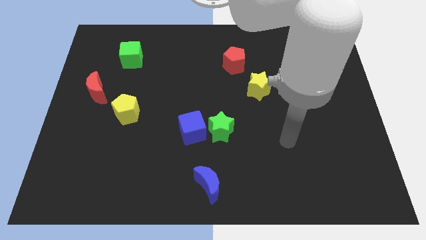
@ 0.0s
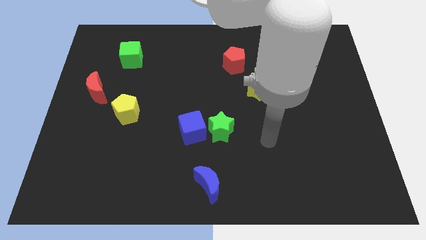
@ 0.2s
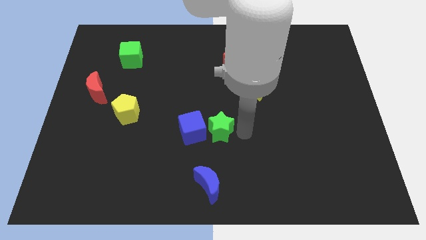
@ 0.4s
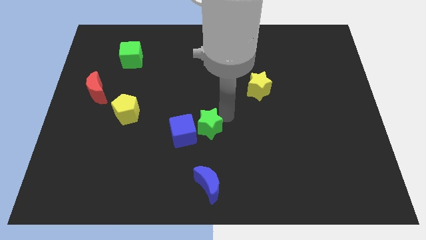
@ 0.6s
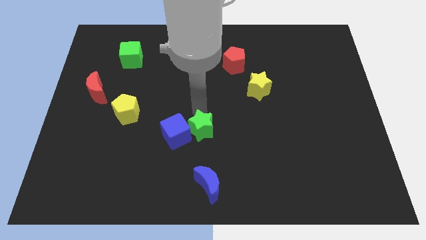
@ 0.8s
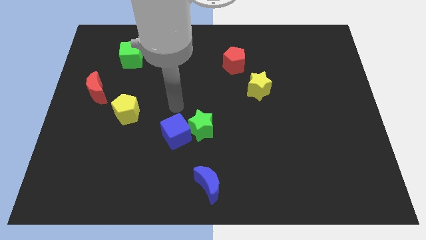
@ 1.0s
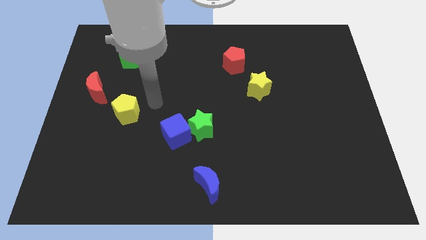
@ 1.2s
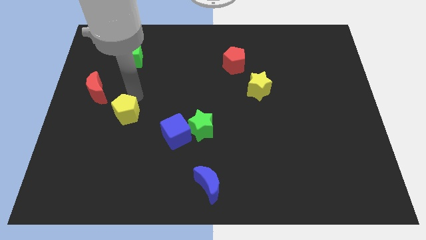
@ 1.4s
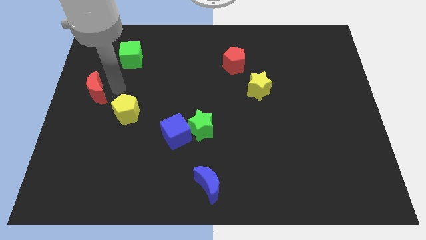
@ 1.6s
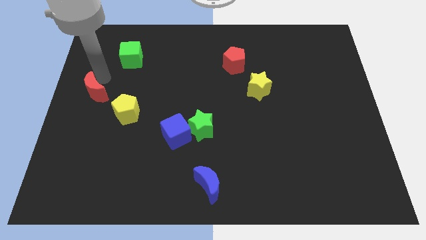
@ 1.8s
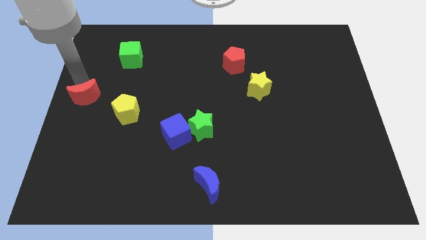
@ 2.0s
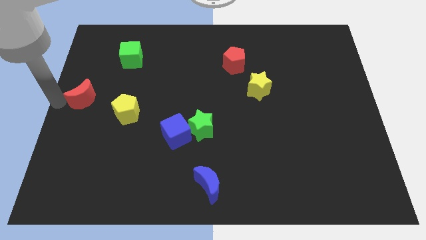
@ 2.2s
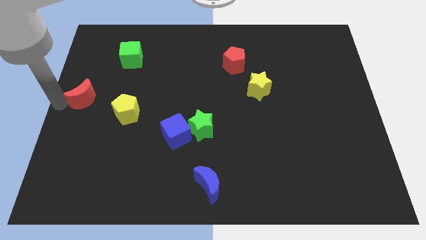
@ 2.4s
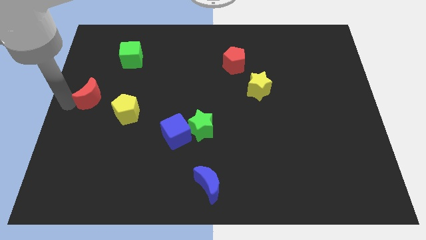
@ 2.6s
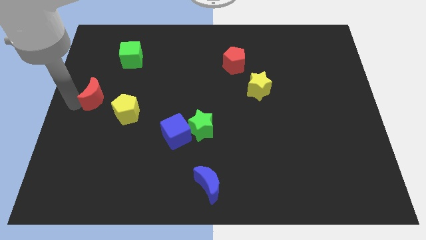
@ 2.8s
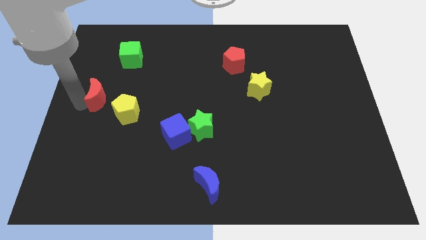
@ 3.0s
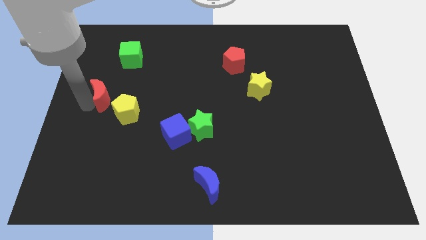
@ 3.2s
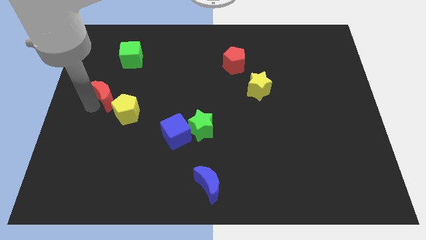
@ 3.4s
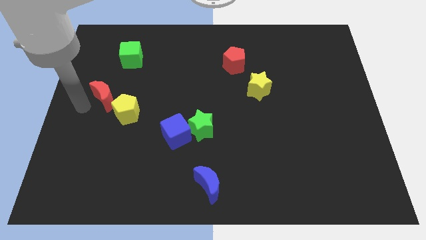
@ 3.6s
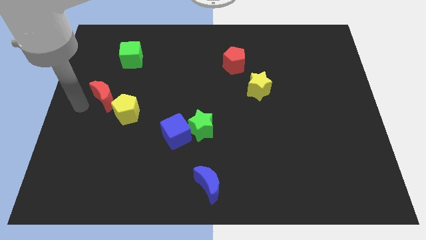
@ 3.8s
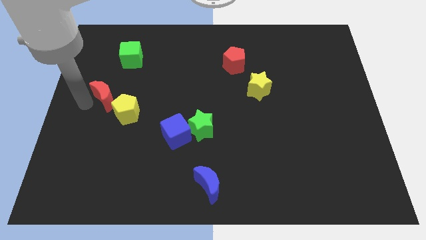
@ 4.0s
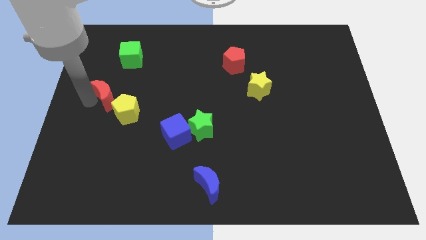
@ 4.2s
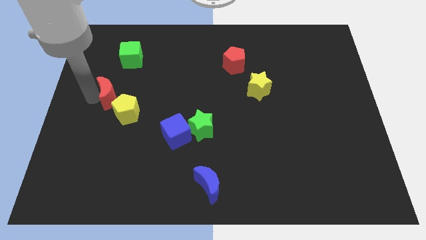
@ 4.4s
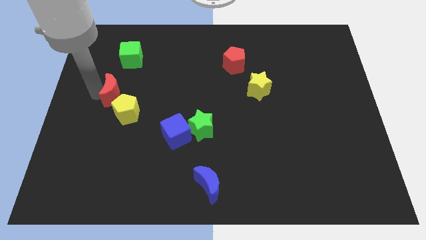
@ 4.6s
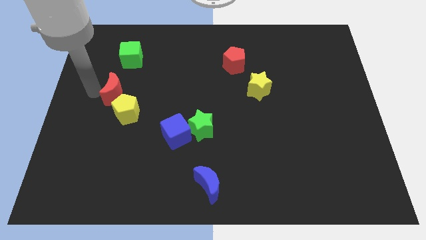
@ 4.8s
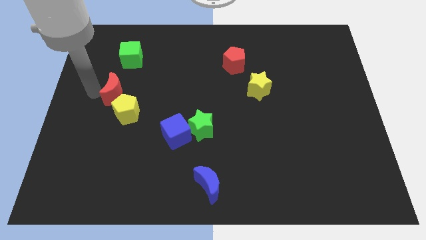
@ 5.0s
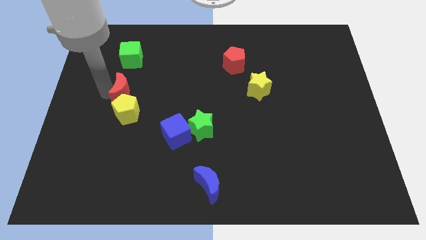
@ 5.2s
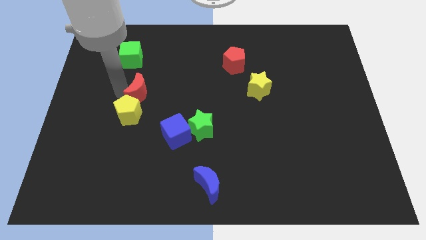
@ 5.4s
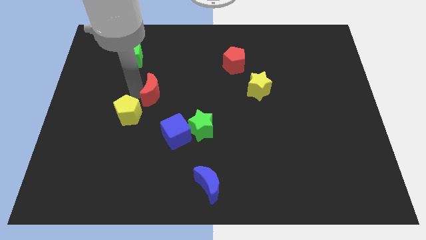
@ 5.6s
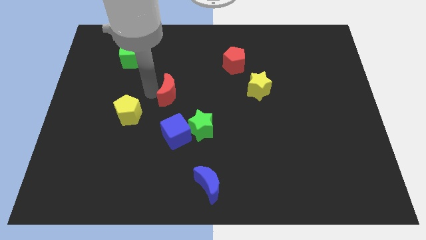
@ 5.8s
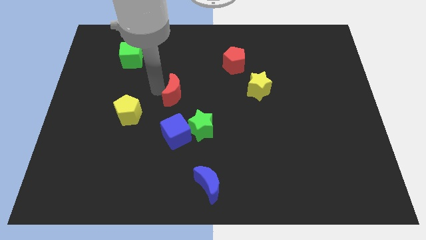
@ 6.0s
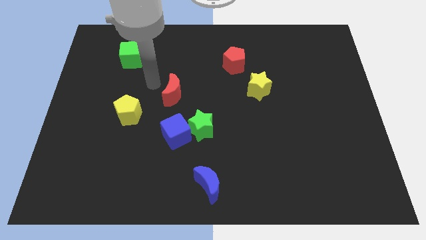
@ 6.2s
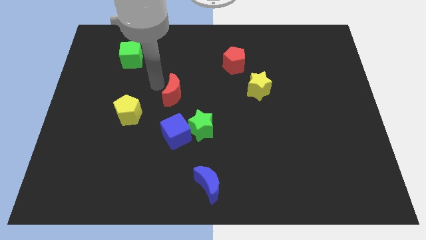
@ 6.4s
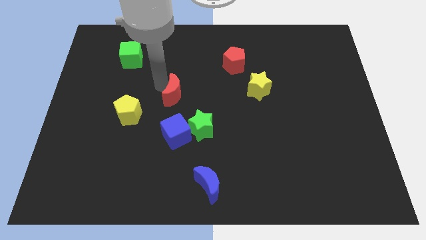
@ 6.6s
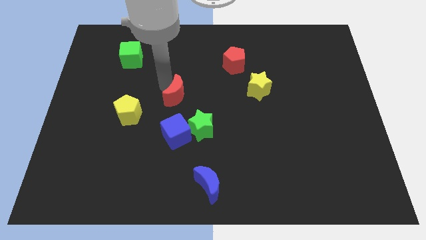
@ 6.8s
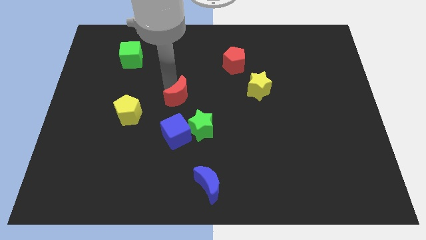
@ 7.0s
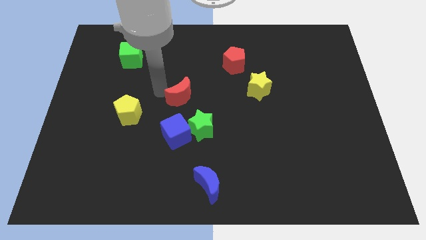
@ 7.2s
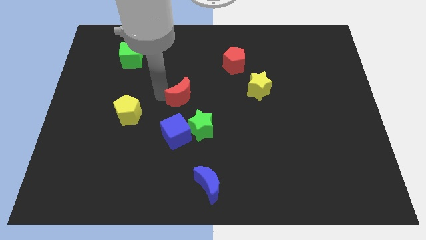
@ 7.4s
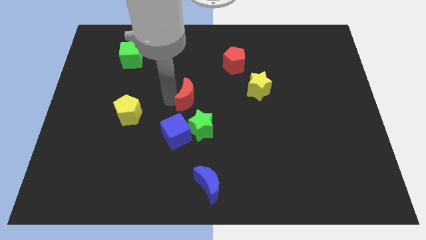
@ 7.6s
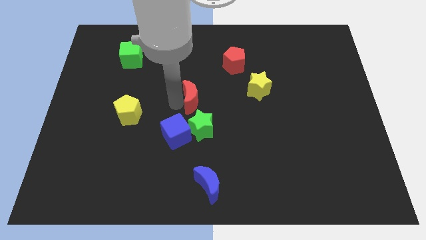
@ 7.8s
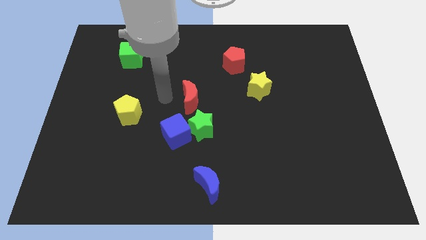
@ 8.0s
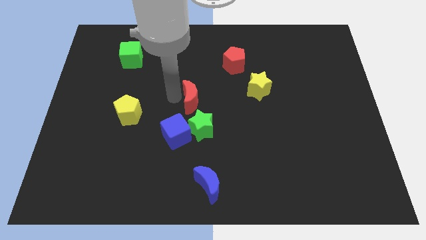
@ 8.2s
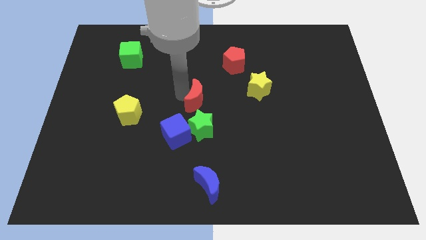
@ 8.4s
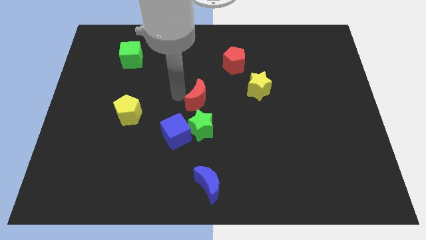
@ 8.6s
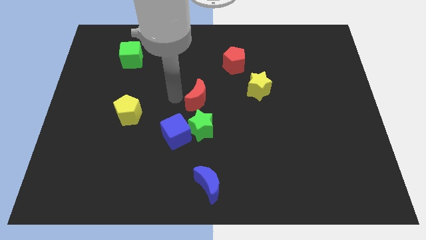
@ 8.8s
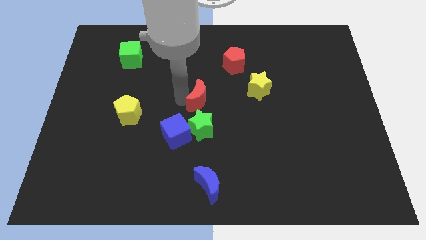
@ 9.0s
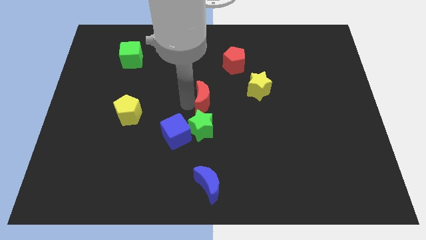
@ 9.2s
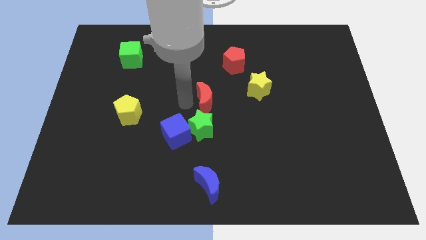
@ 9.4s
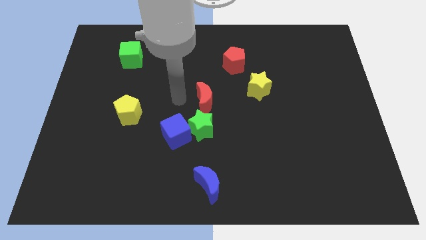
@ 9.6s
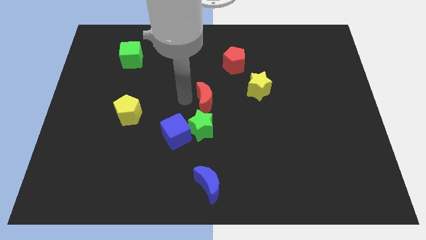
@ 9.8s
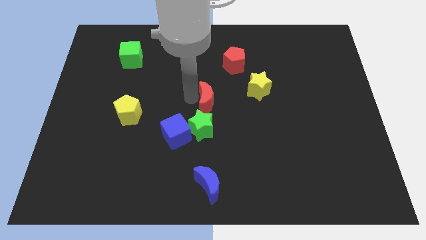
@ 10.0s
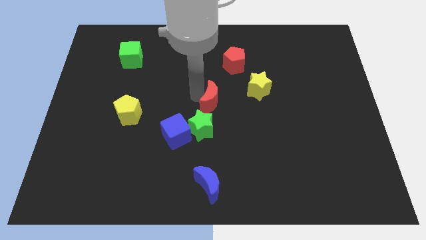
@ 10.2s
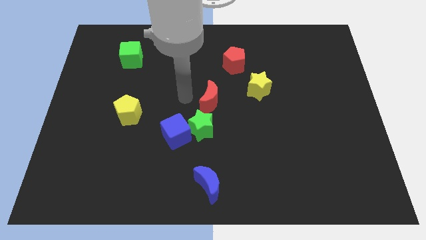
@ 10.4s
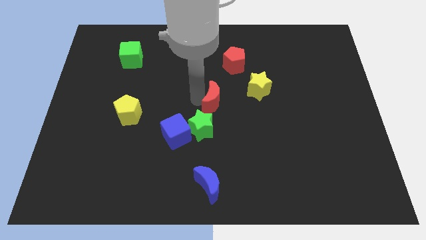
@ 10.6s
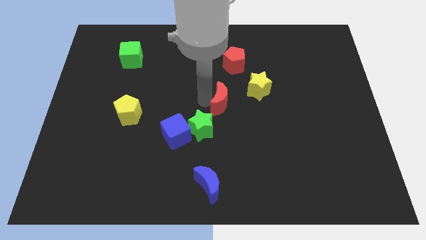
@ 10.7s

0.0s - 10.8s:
move the red moon to the bottom left side of the yellow star

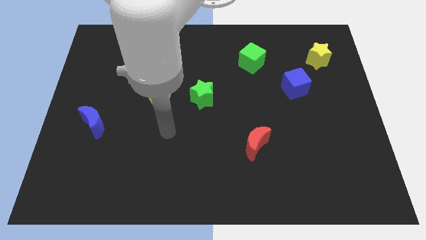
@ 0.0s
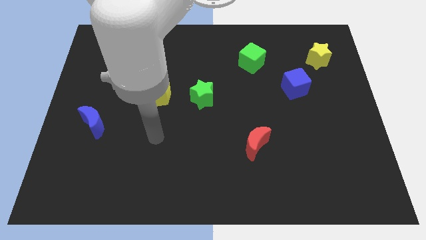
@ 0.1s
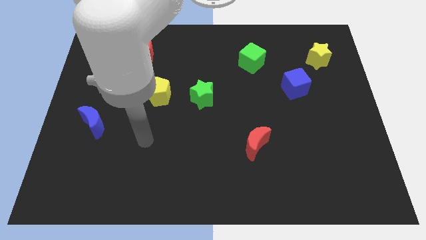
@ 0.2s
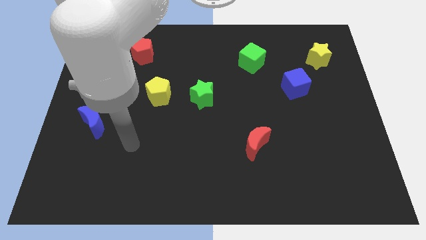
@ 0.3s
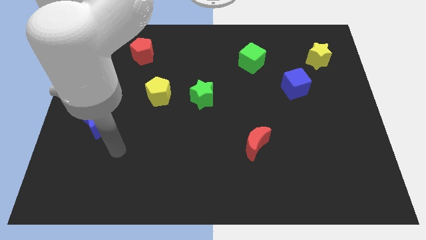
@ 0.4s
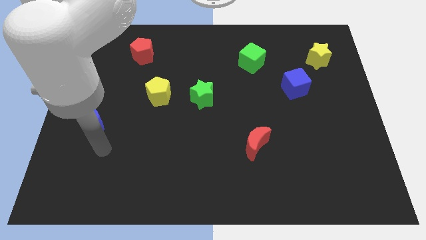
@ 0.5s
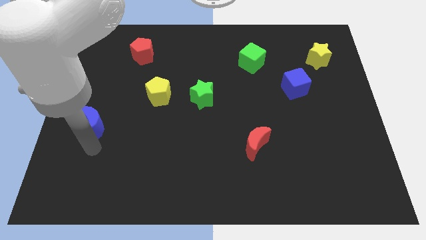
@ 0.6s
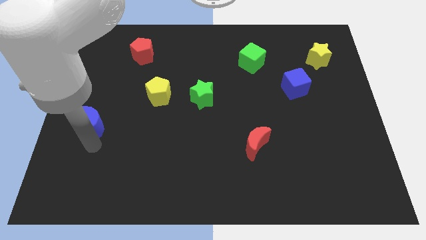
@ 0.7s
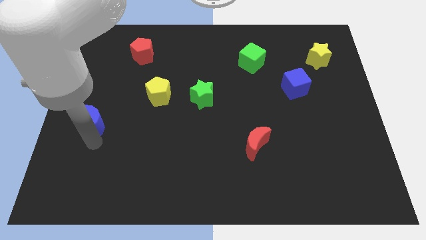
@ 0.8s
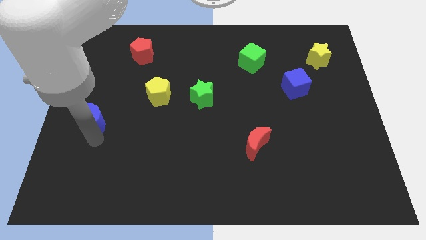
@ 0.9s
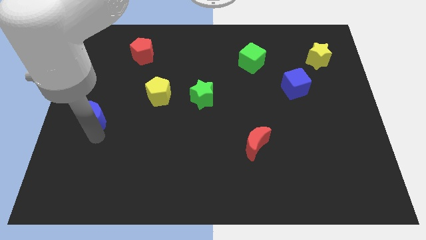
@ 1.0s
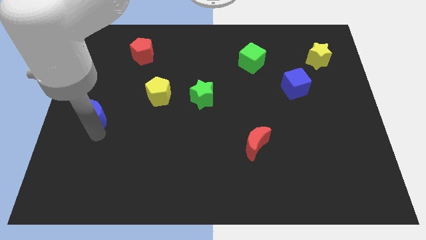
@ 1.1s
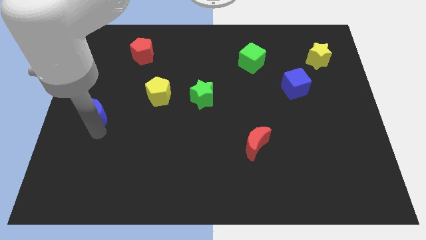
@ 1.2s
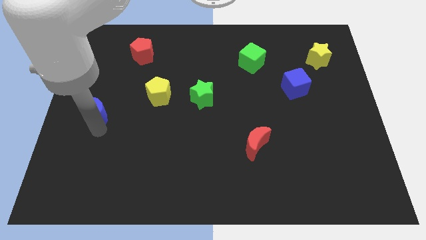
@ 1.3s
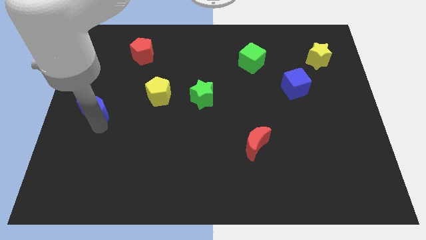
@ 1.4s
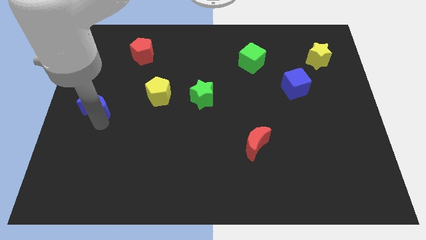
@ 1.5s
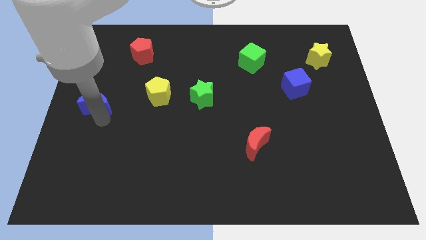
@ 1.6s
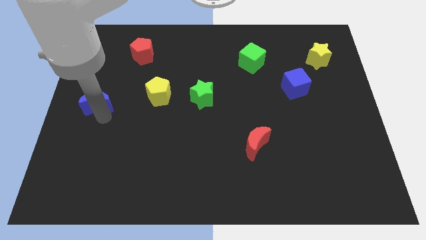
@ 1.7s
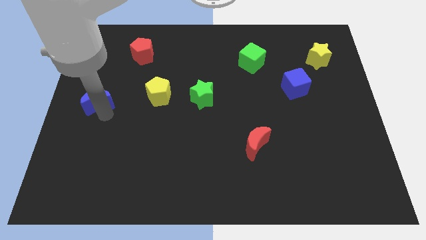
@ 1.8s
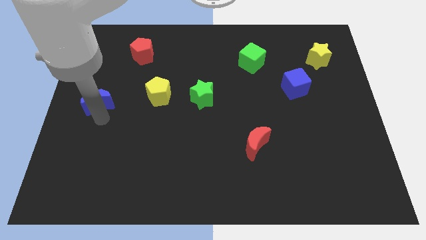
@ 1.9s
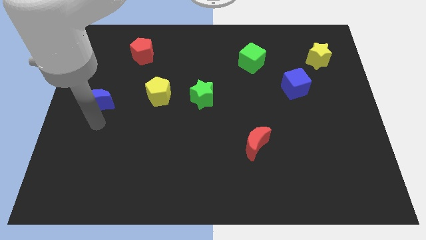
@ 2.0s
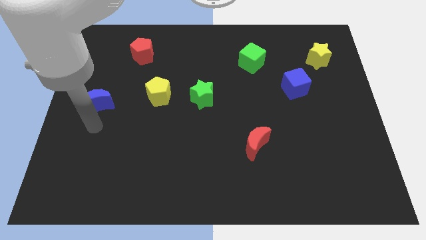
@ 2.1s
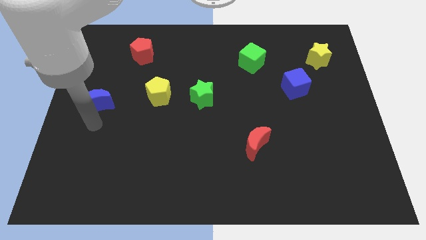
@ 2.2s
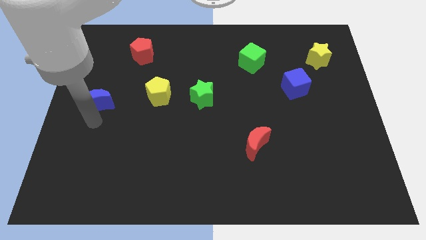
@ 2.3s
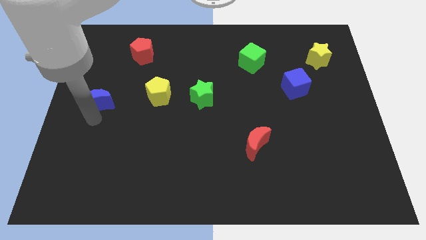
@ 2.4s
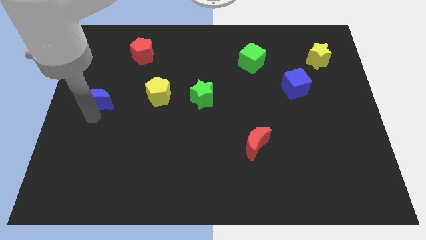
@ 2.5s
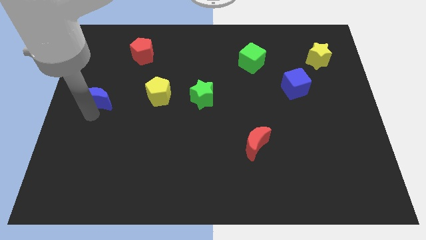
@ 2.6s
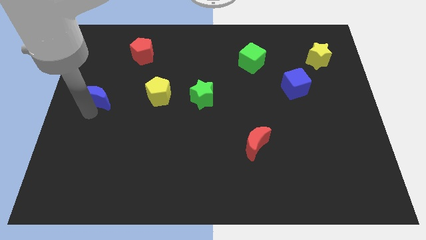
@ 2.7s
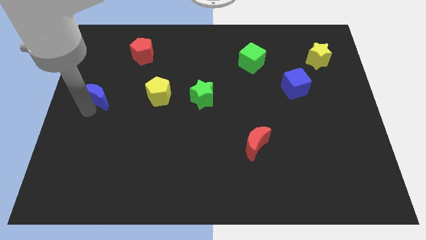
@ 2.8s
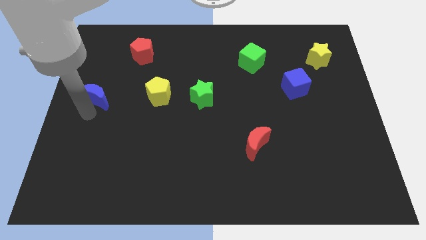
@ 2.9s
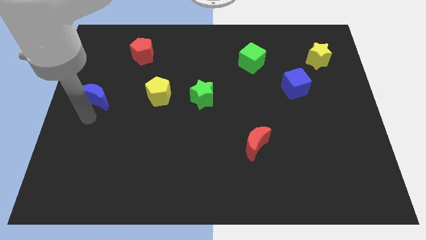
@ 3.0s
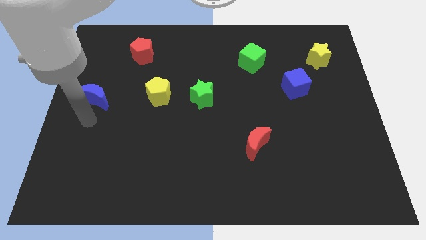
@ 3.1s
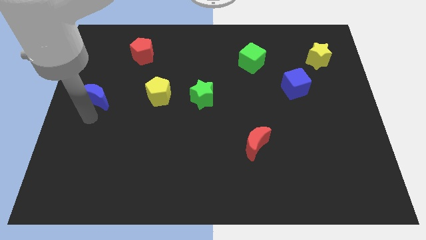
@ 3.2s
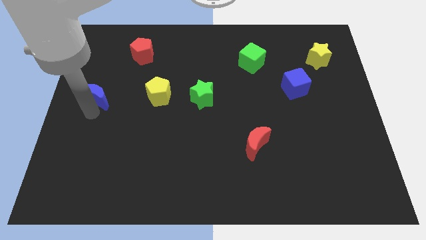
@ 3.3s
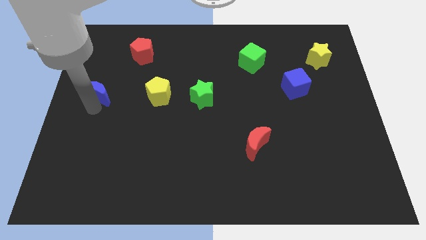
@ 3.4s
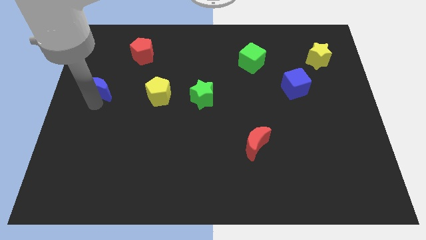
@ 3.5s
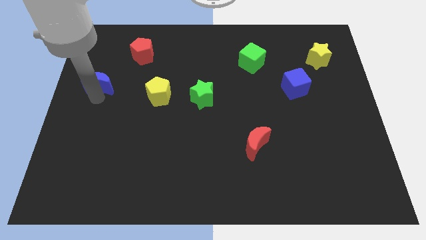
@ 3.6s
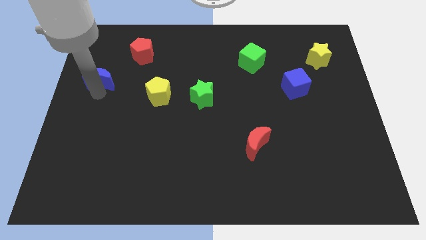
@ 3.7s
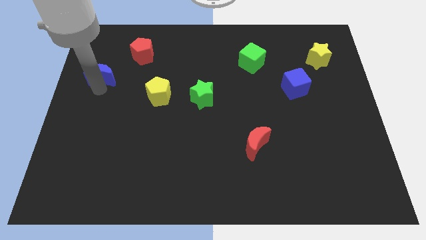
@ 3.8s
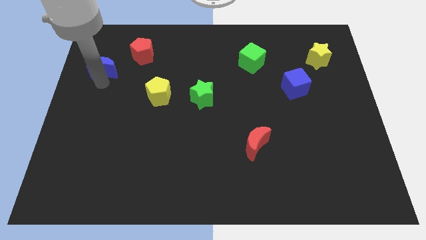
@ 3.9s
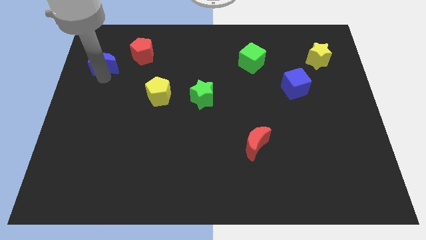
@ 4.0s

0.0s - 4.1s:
move the blue moon just left of the red pentagon
